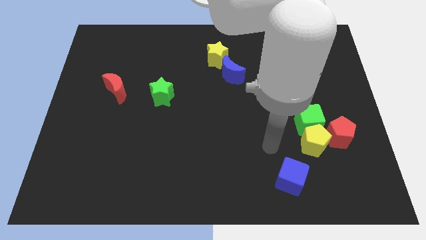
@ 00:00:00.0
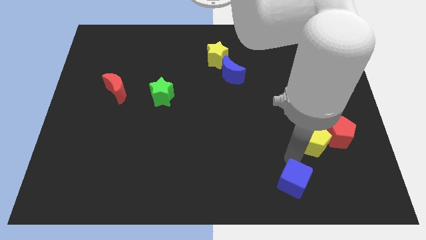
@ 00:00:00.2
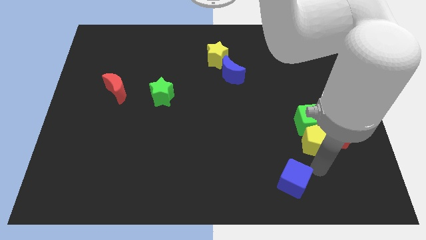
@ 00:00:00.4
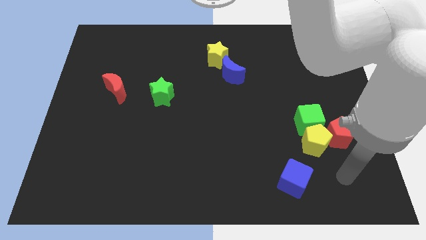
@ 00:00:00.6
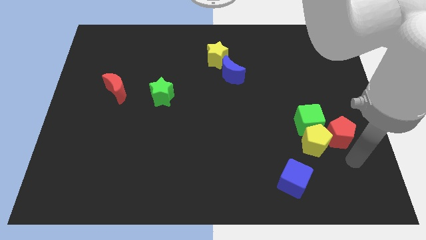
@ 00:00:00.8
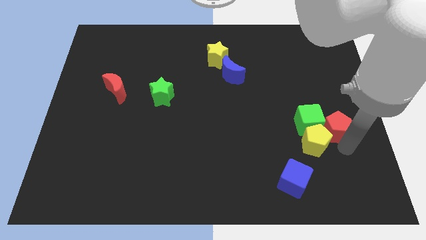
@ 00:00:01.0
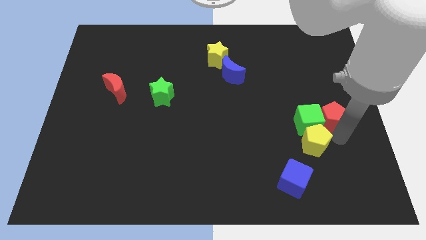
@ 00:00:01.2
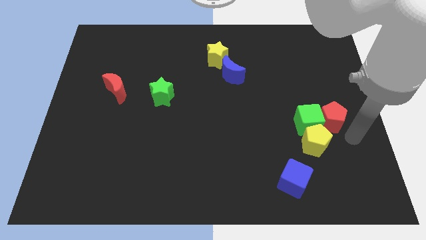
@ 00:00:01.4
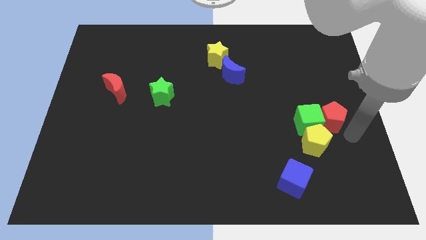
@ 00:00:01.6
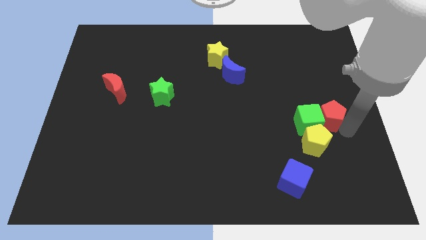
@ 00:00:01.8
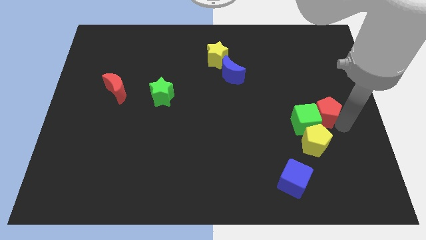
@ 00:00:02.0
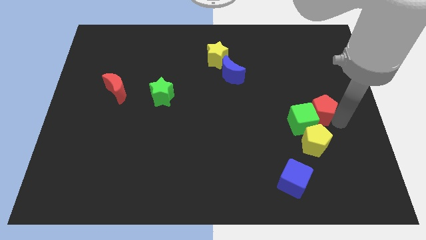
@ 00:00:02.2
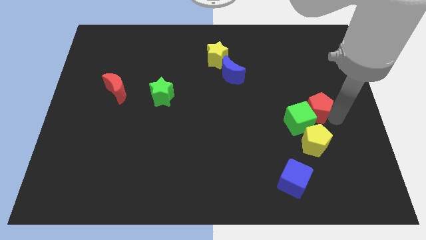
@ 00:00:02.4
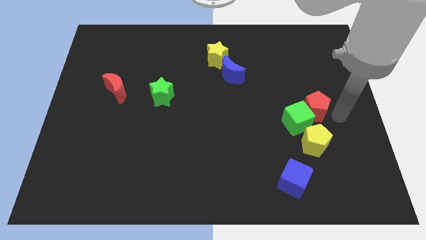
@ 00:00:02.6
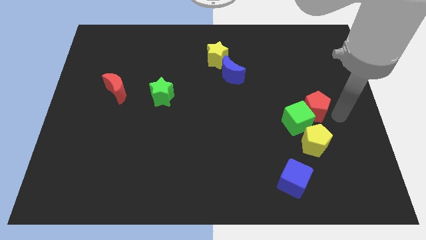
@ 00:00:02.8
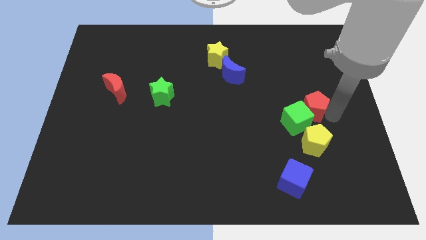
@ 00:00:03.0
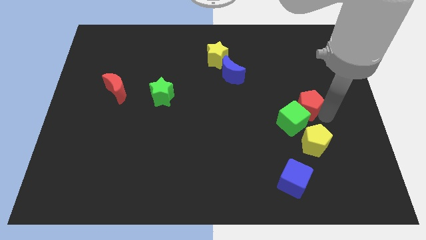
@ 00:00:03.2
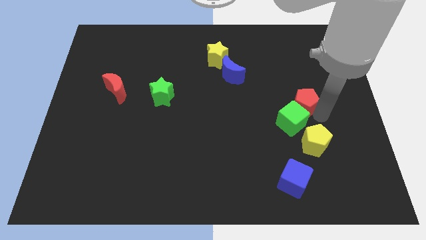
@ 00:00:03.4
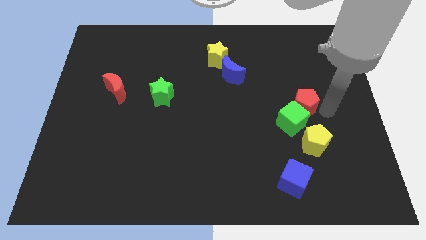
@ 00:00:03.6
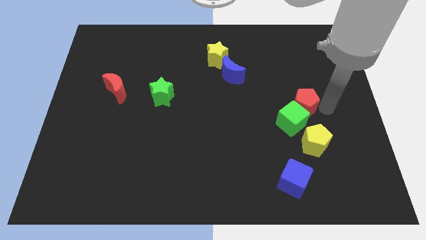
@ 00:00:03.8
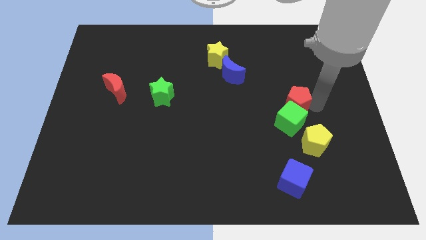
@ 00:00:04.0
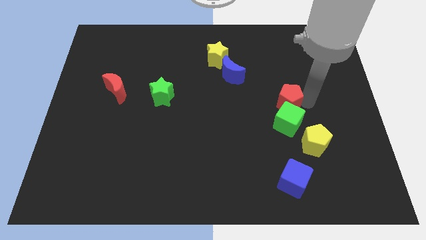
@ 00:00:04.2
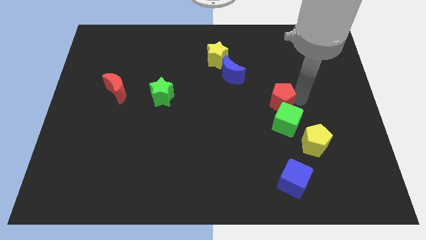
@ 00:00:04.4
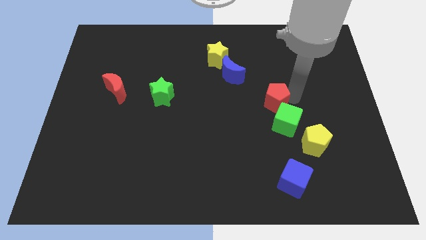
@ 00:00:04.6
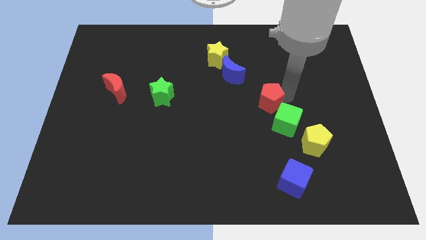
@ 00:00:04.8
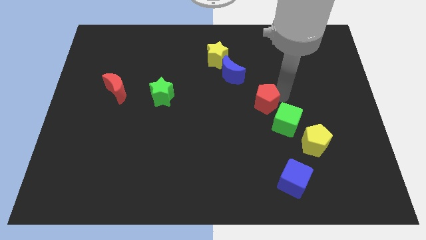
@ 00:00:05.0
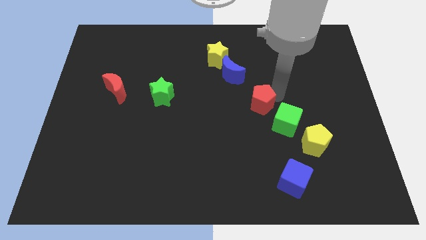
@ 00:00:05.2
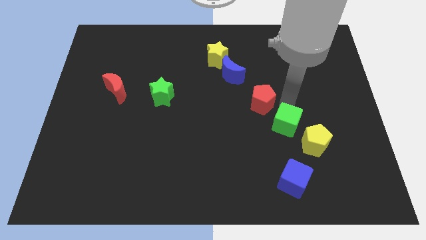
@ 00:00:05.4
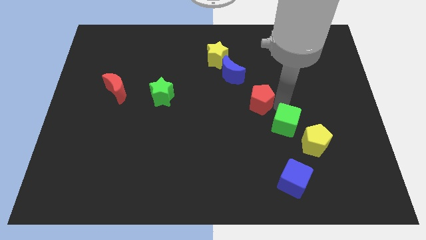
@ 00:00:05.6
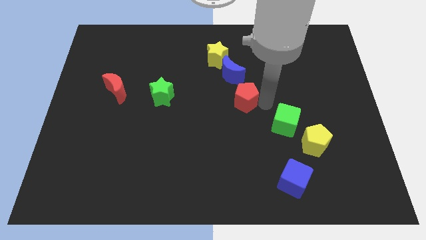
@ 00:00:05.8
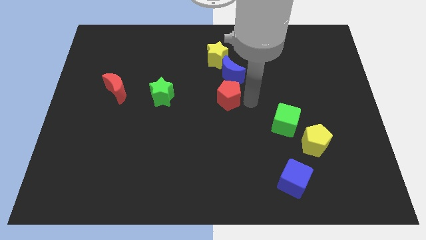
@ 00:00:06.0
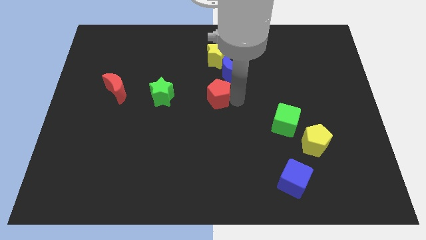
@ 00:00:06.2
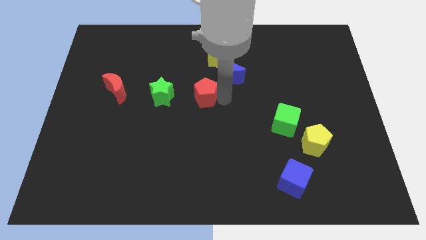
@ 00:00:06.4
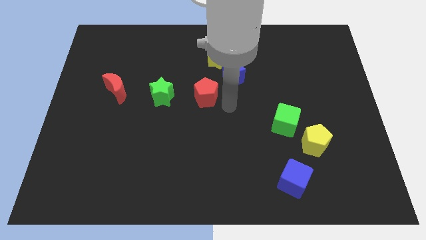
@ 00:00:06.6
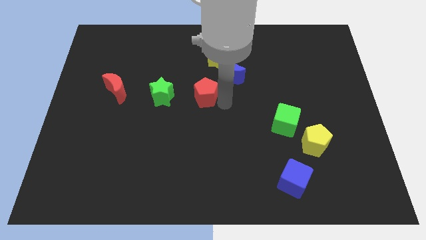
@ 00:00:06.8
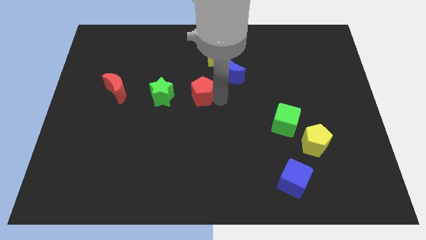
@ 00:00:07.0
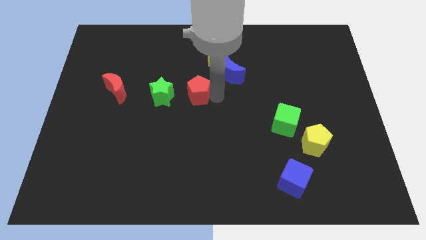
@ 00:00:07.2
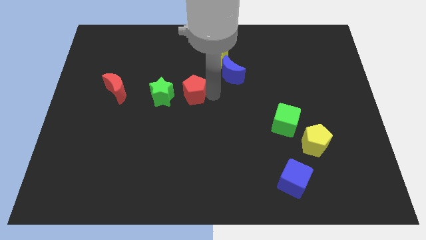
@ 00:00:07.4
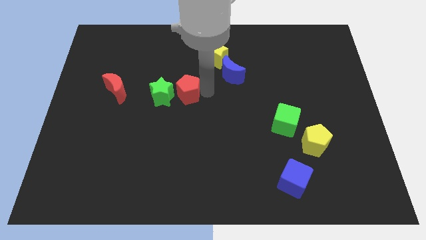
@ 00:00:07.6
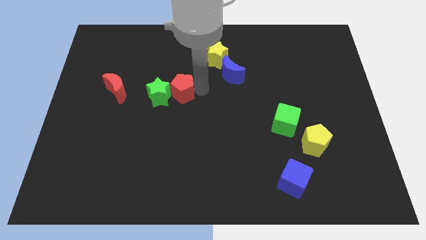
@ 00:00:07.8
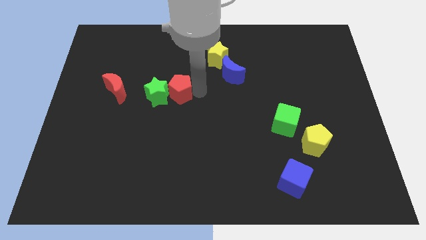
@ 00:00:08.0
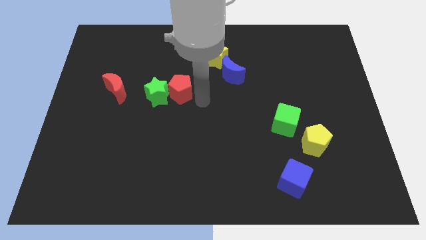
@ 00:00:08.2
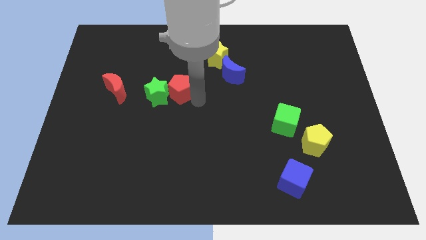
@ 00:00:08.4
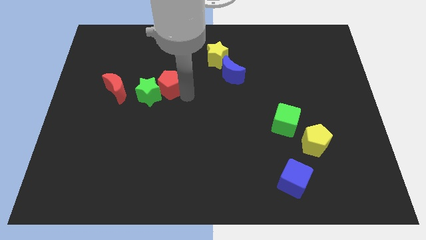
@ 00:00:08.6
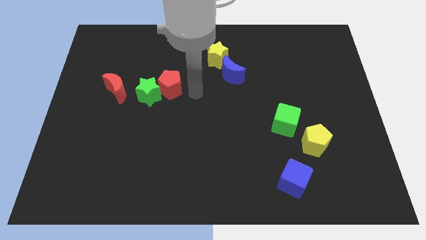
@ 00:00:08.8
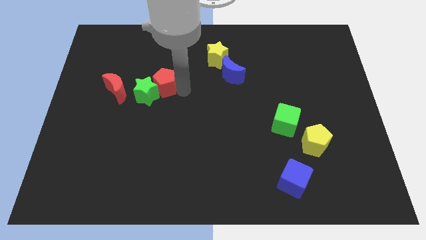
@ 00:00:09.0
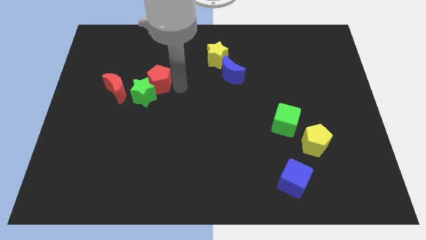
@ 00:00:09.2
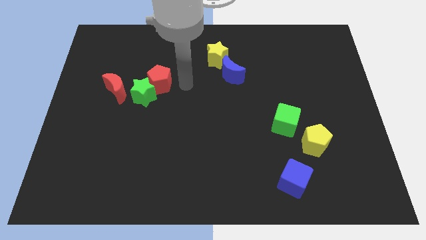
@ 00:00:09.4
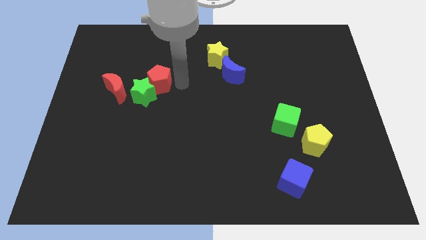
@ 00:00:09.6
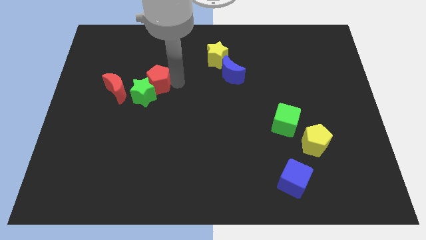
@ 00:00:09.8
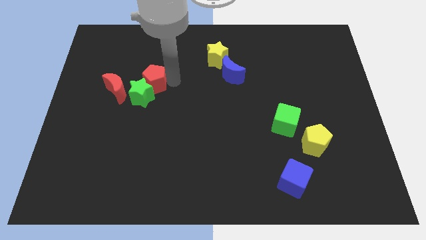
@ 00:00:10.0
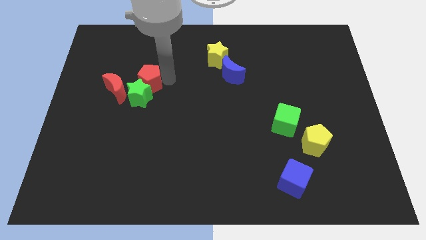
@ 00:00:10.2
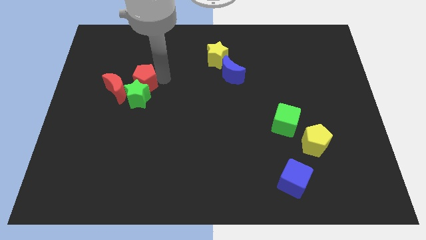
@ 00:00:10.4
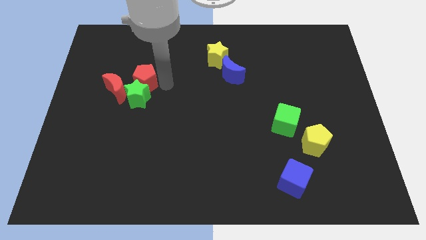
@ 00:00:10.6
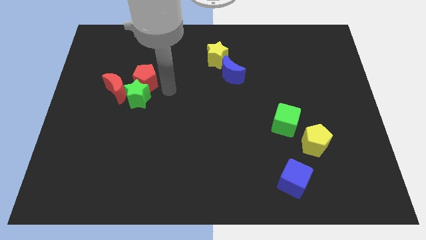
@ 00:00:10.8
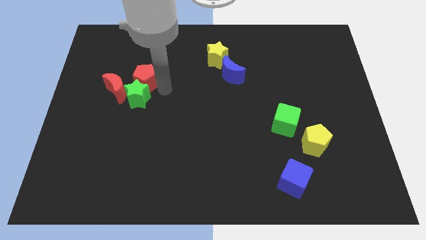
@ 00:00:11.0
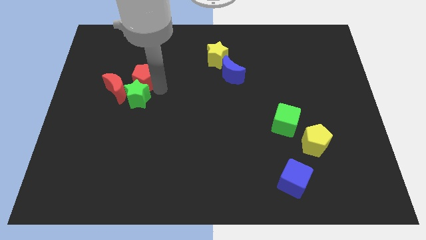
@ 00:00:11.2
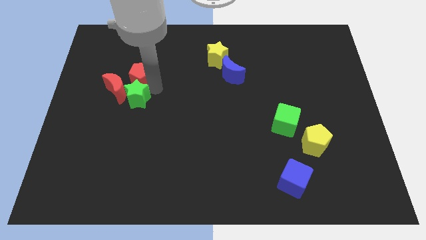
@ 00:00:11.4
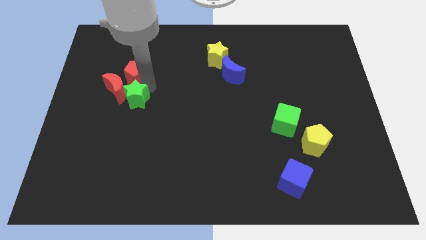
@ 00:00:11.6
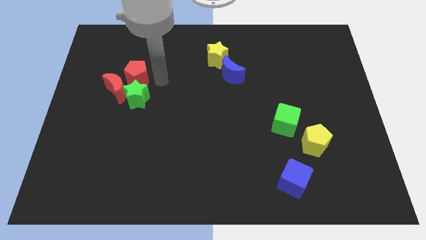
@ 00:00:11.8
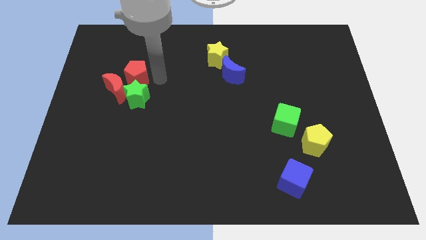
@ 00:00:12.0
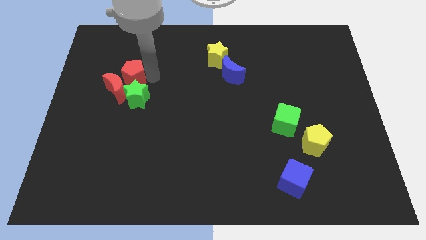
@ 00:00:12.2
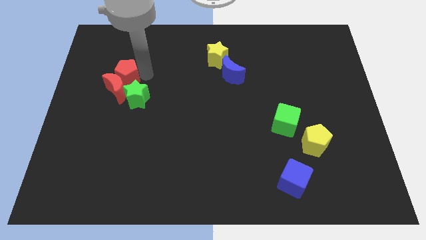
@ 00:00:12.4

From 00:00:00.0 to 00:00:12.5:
slide the red pentagon diagonally up and to the left of the red moon

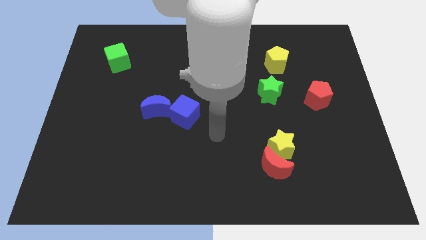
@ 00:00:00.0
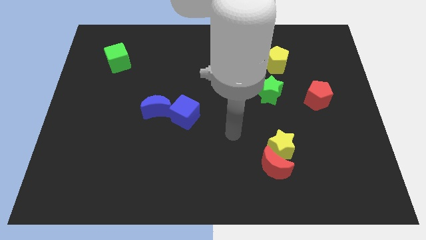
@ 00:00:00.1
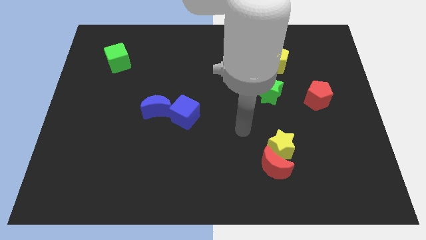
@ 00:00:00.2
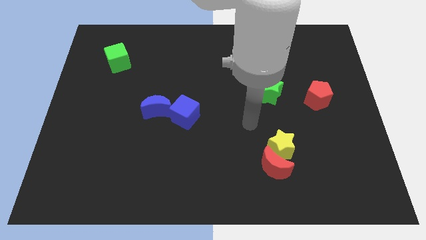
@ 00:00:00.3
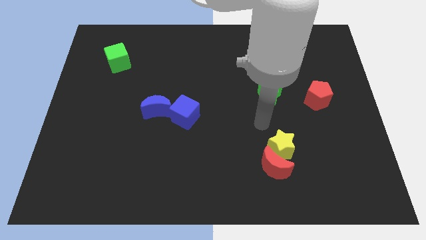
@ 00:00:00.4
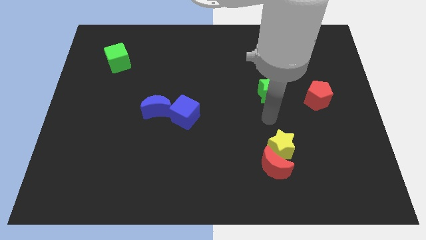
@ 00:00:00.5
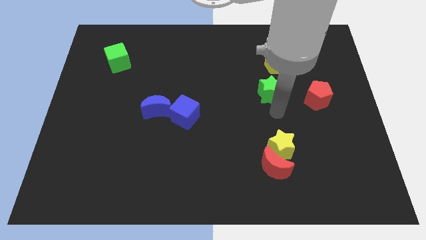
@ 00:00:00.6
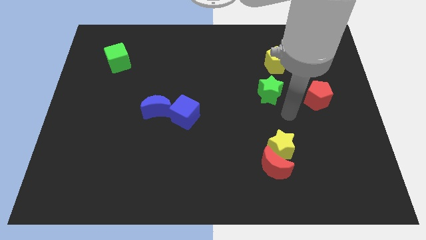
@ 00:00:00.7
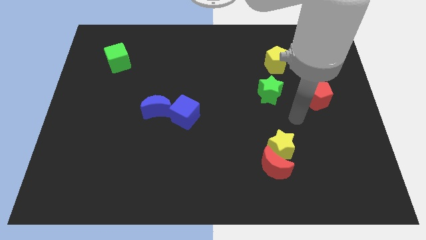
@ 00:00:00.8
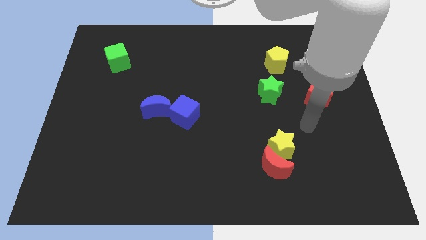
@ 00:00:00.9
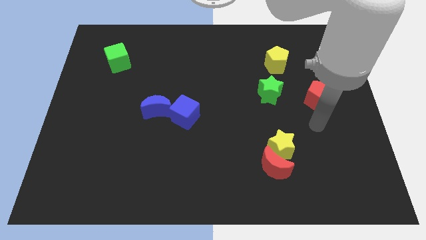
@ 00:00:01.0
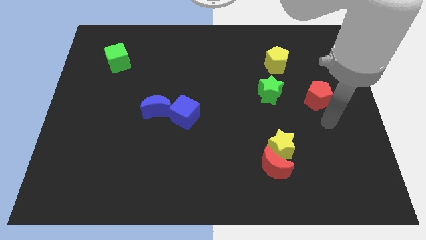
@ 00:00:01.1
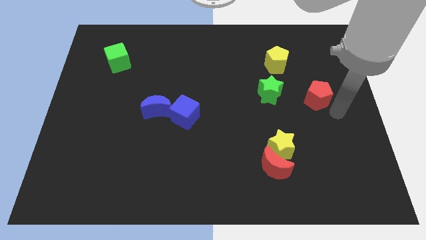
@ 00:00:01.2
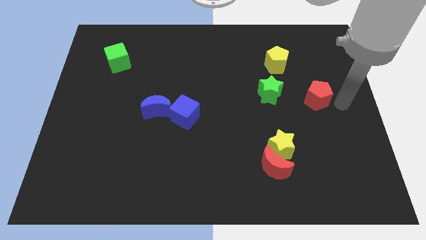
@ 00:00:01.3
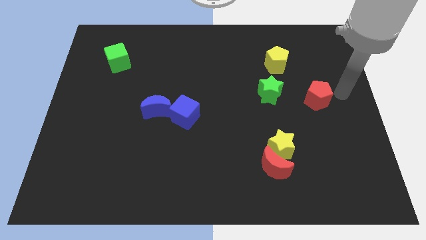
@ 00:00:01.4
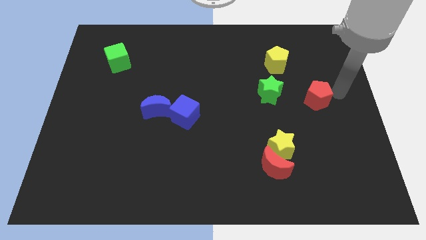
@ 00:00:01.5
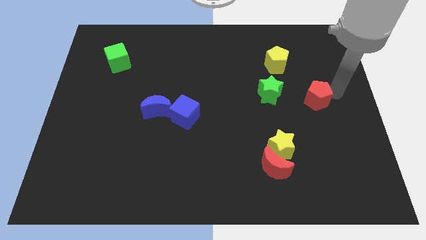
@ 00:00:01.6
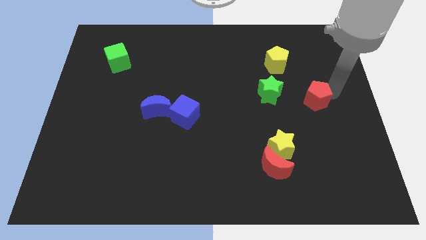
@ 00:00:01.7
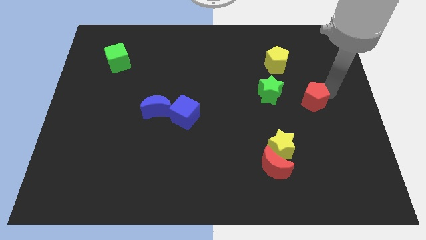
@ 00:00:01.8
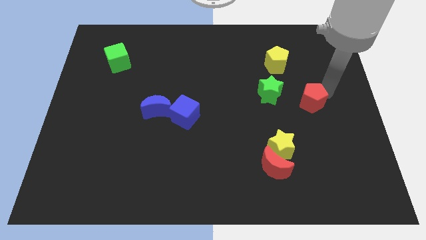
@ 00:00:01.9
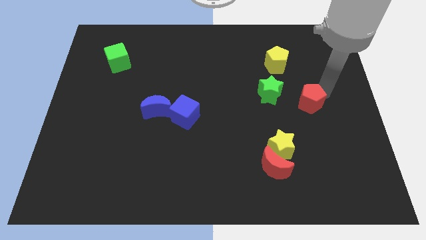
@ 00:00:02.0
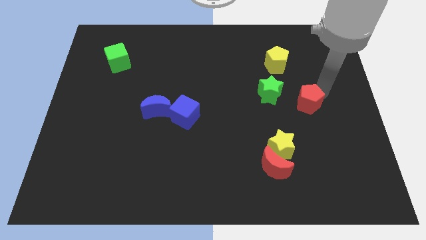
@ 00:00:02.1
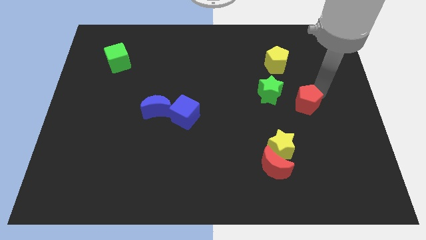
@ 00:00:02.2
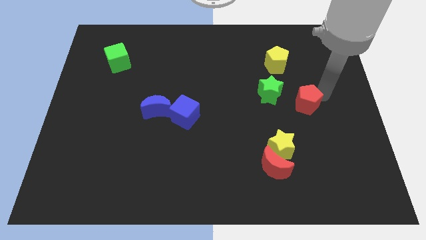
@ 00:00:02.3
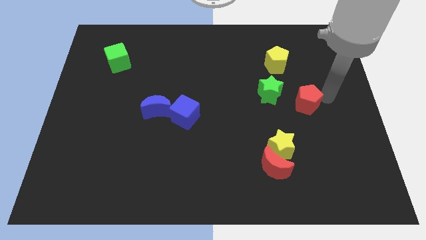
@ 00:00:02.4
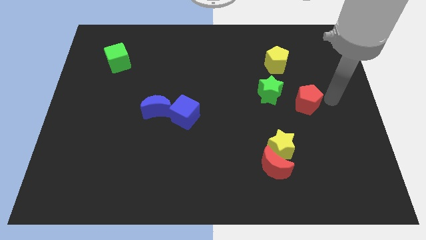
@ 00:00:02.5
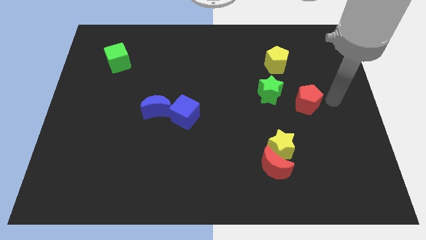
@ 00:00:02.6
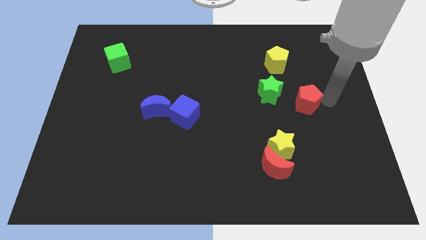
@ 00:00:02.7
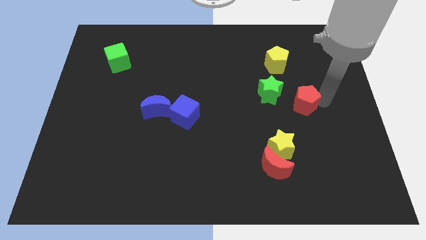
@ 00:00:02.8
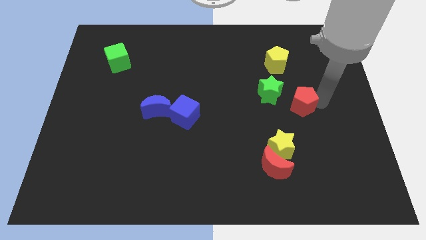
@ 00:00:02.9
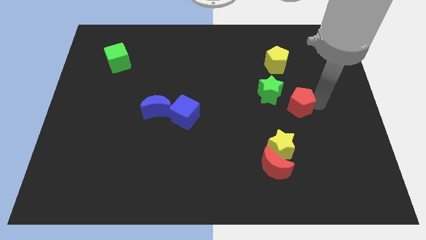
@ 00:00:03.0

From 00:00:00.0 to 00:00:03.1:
push the red pentagon below the yellow pentagon
